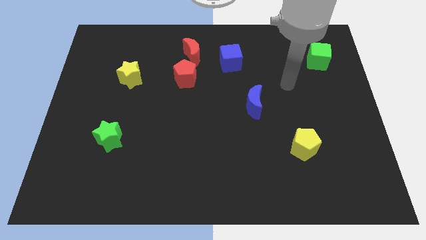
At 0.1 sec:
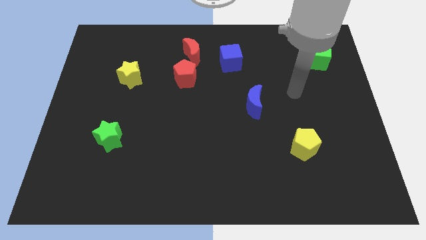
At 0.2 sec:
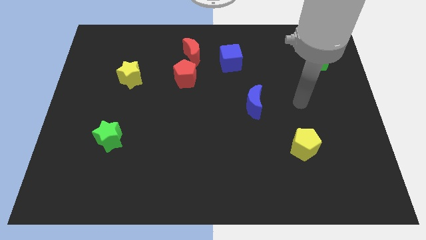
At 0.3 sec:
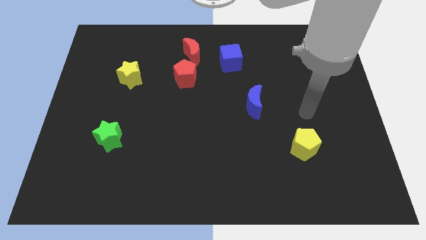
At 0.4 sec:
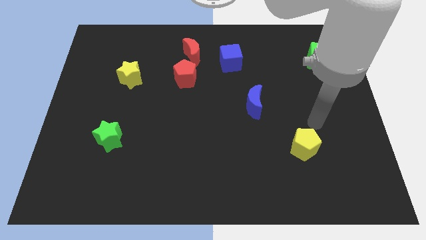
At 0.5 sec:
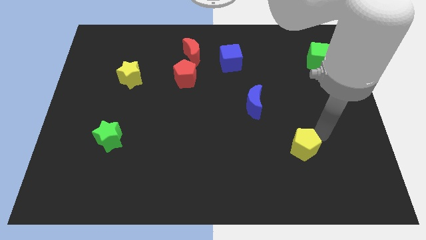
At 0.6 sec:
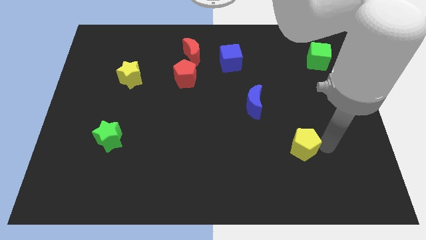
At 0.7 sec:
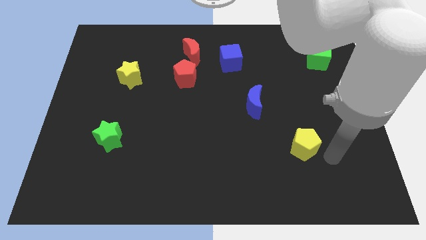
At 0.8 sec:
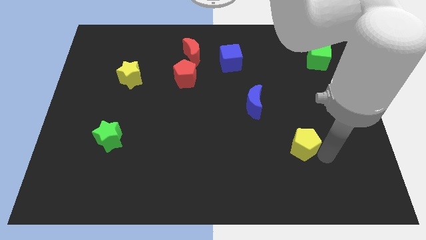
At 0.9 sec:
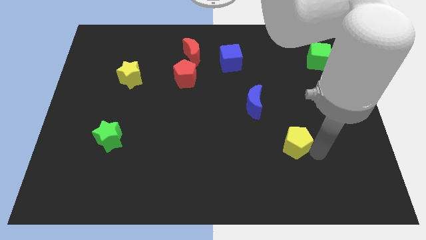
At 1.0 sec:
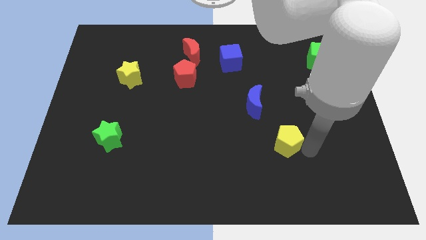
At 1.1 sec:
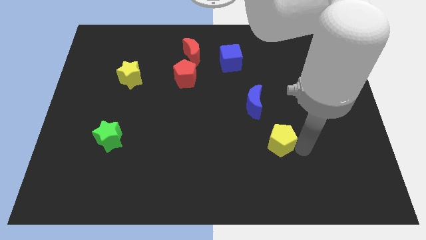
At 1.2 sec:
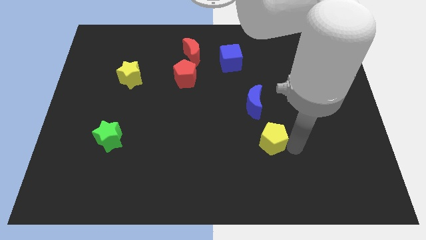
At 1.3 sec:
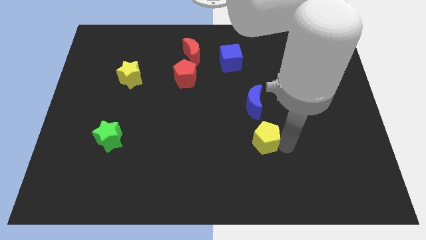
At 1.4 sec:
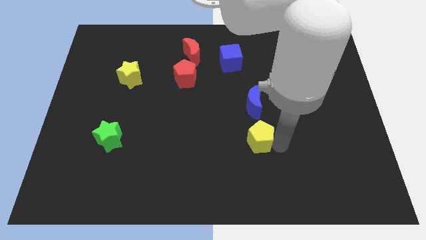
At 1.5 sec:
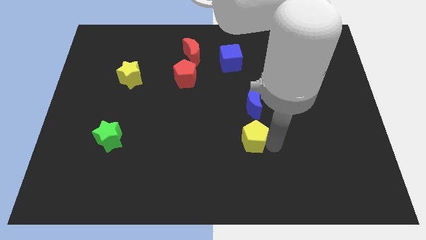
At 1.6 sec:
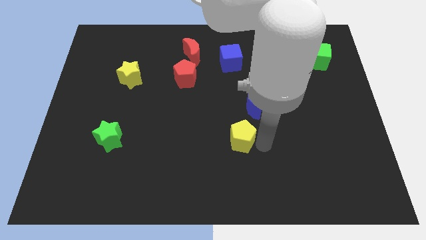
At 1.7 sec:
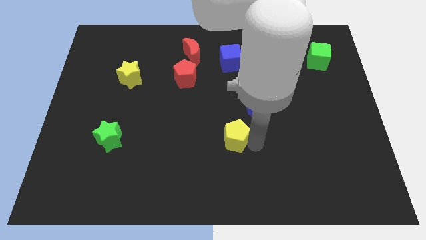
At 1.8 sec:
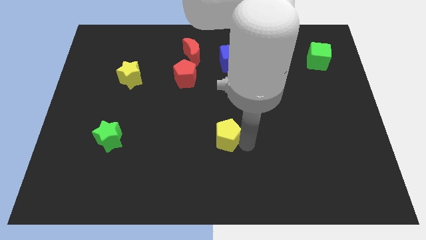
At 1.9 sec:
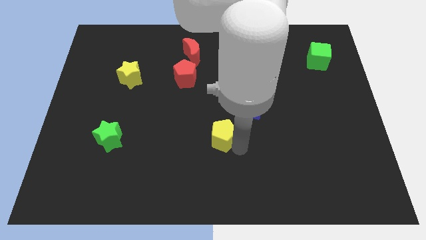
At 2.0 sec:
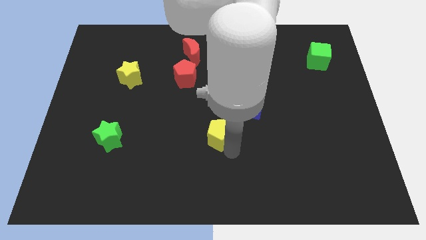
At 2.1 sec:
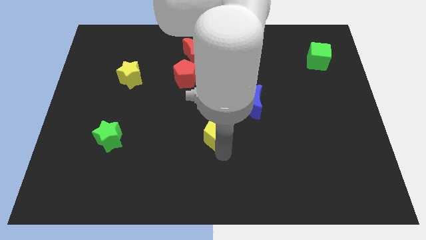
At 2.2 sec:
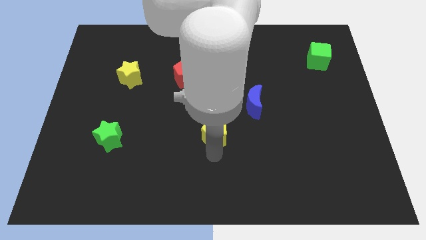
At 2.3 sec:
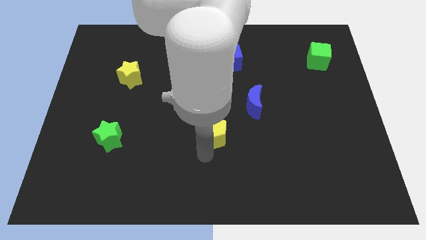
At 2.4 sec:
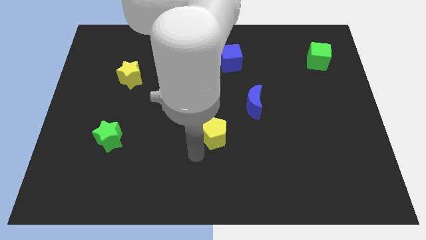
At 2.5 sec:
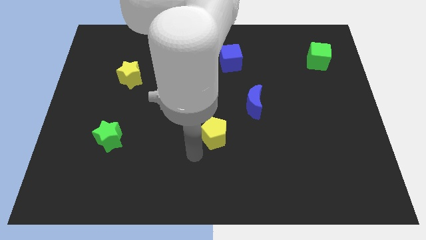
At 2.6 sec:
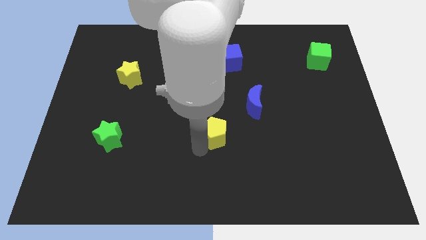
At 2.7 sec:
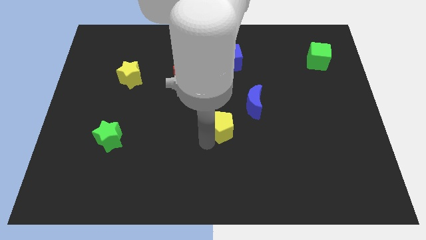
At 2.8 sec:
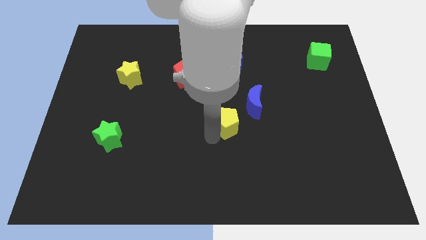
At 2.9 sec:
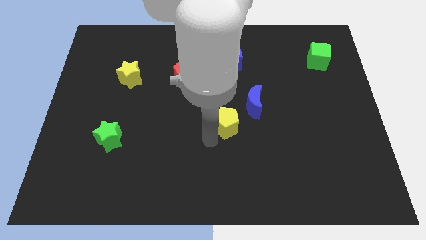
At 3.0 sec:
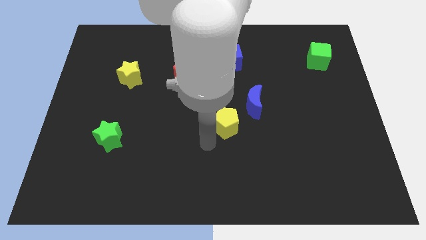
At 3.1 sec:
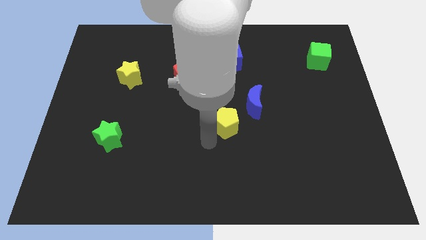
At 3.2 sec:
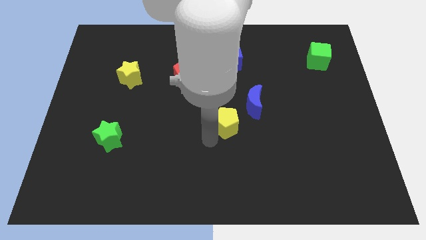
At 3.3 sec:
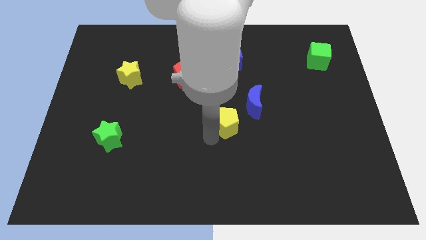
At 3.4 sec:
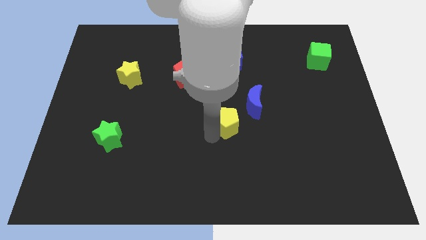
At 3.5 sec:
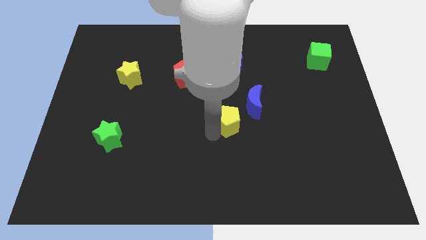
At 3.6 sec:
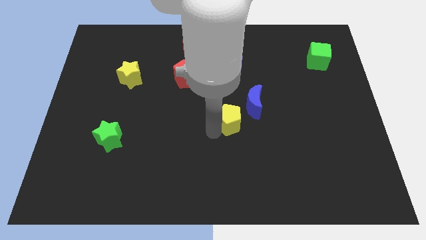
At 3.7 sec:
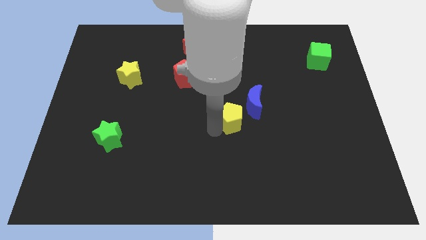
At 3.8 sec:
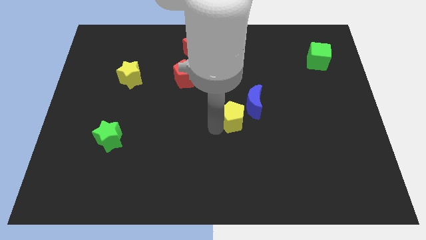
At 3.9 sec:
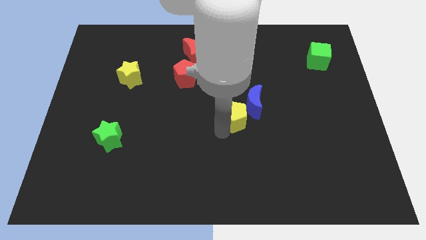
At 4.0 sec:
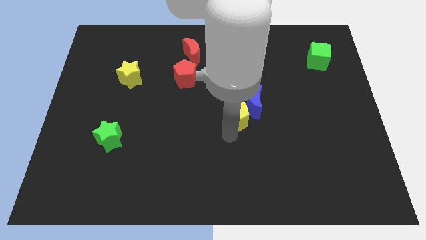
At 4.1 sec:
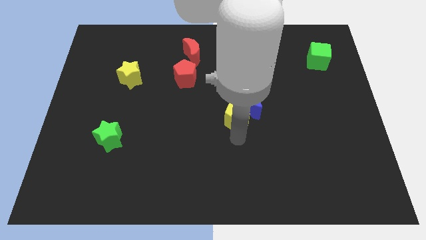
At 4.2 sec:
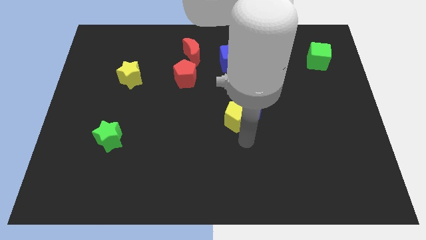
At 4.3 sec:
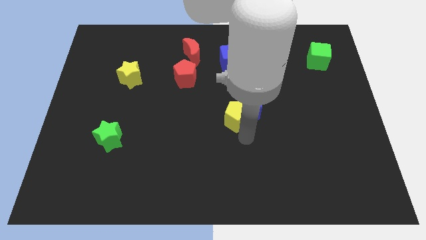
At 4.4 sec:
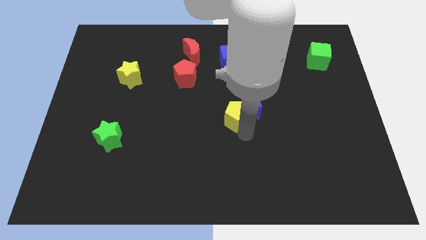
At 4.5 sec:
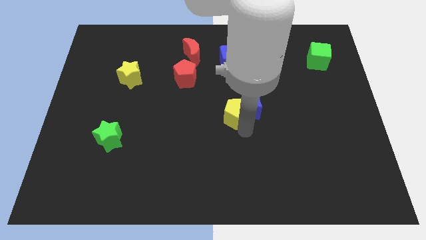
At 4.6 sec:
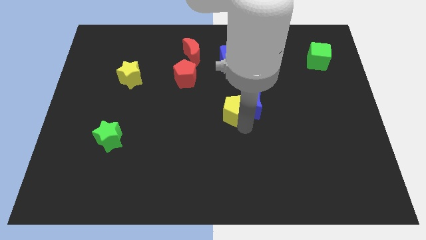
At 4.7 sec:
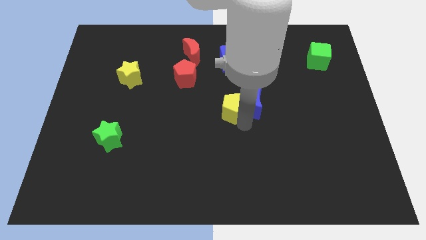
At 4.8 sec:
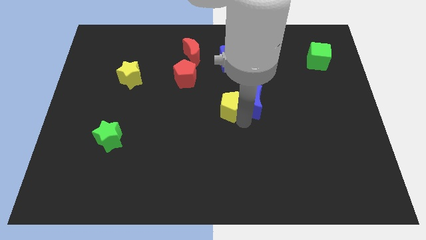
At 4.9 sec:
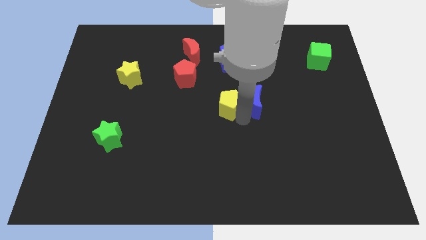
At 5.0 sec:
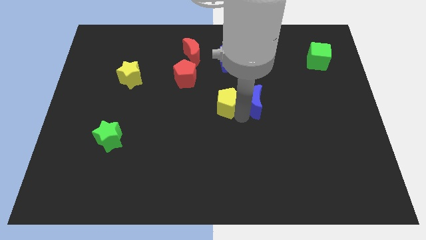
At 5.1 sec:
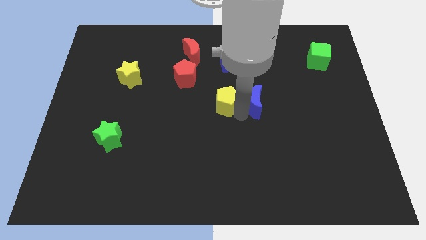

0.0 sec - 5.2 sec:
slide the yellow pentagon up and then to the left

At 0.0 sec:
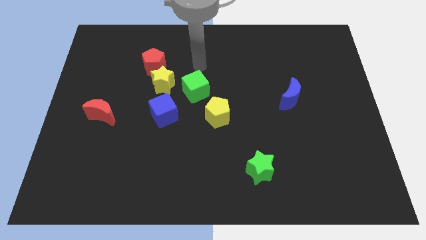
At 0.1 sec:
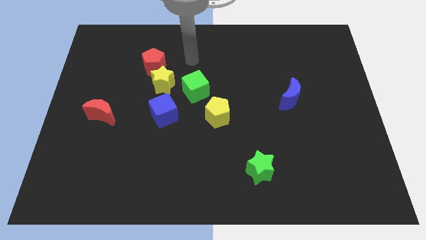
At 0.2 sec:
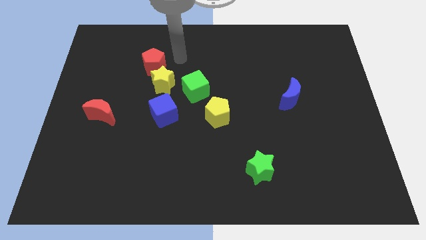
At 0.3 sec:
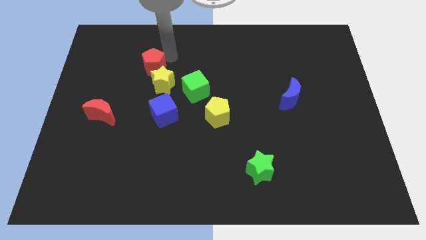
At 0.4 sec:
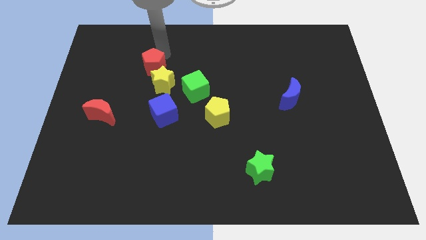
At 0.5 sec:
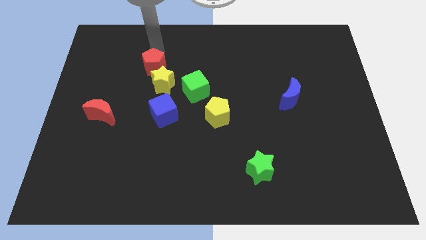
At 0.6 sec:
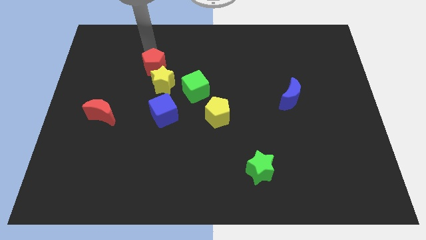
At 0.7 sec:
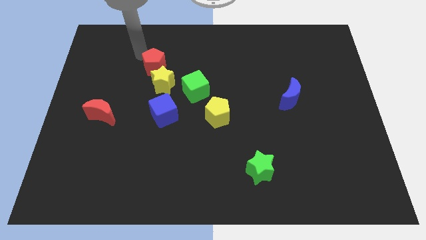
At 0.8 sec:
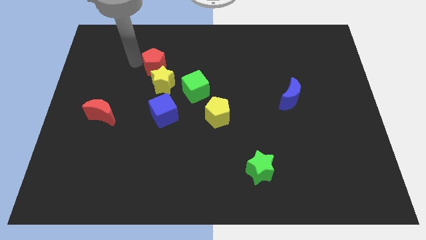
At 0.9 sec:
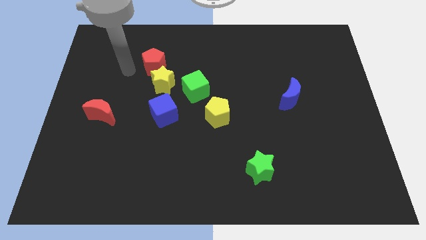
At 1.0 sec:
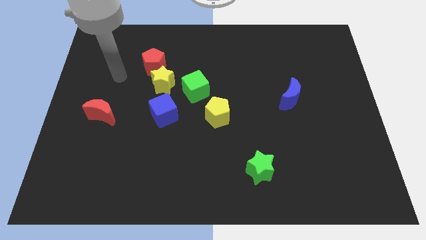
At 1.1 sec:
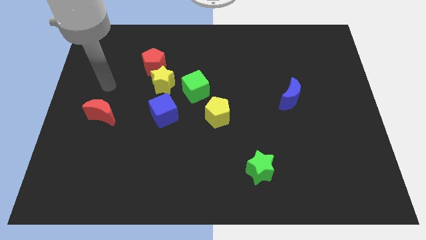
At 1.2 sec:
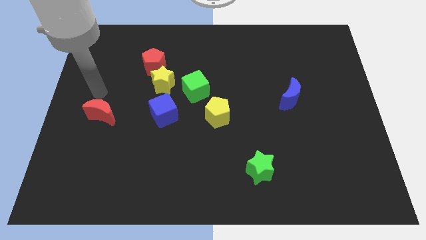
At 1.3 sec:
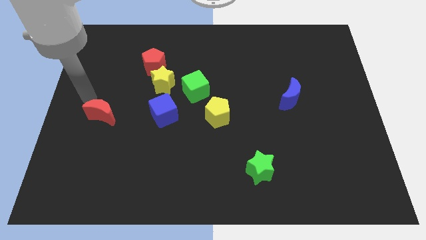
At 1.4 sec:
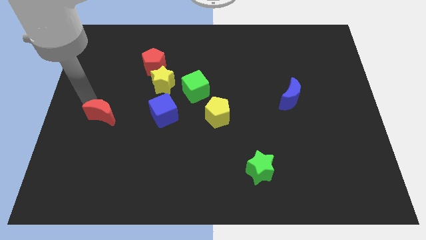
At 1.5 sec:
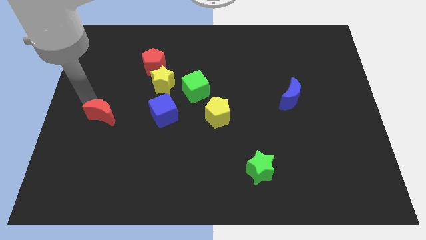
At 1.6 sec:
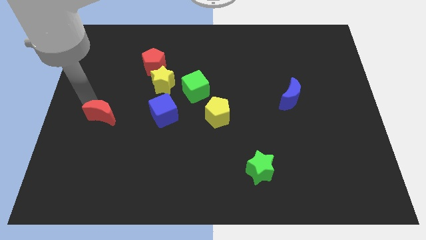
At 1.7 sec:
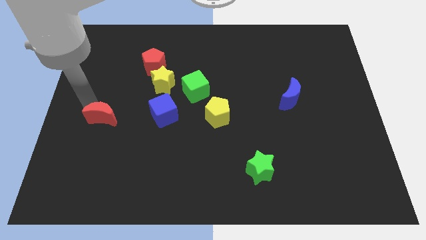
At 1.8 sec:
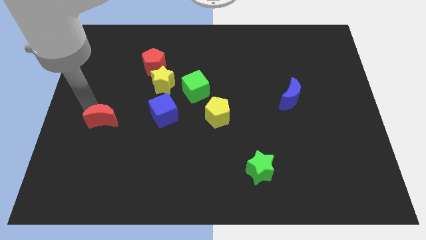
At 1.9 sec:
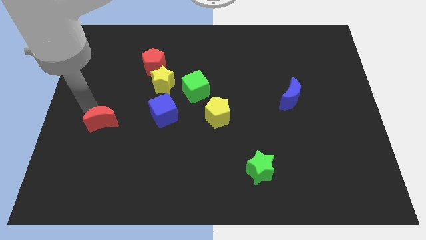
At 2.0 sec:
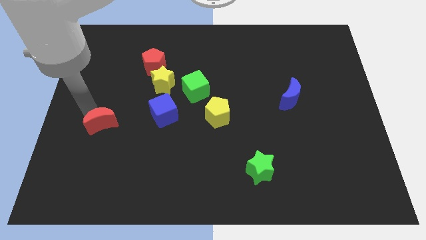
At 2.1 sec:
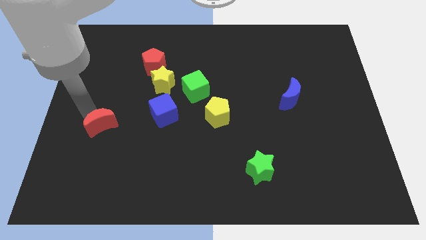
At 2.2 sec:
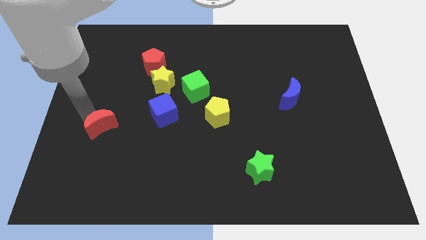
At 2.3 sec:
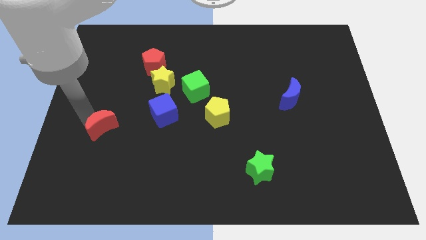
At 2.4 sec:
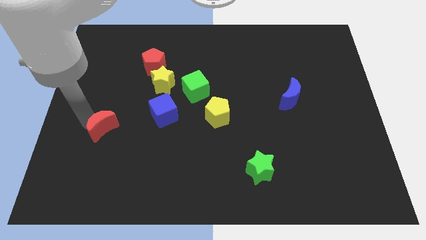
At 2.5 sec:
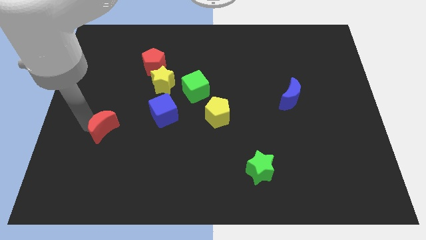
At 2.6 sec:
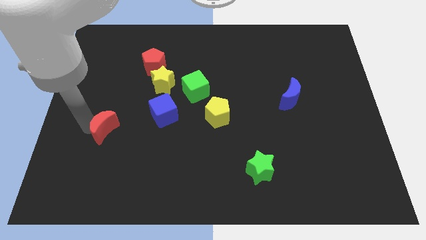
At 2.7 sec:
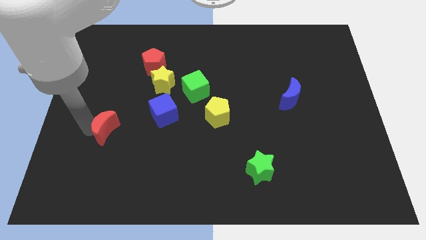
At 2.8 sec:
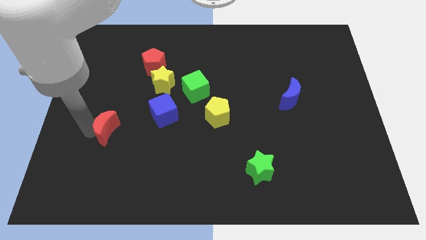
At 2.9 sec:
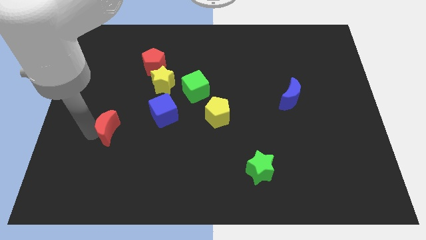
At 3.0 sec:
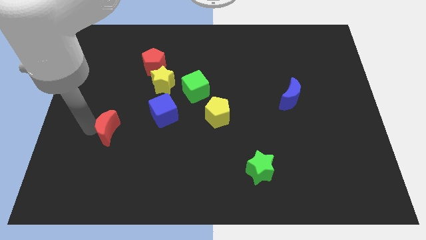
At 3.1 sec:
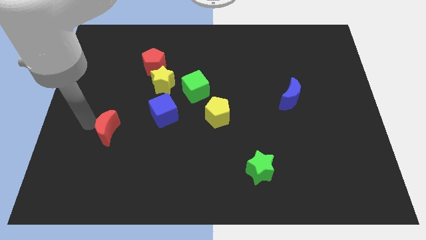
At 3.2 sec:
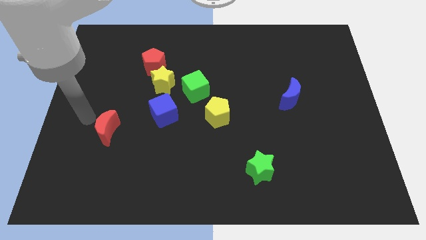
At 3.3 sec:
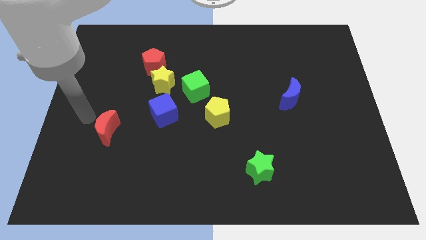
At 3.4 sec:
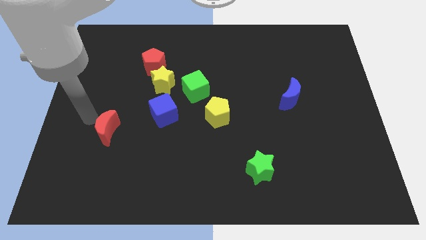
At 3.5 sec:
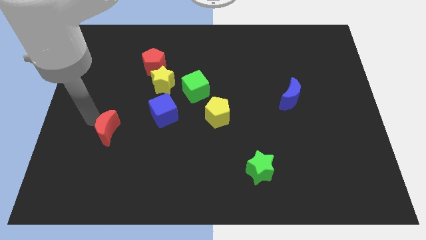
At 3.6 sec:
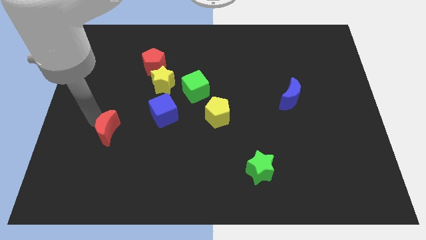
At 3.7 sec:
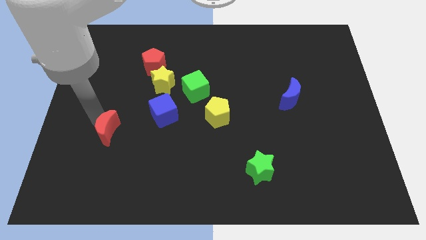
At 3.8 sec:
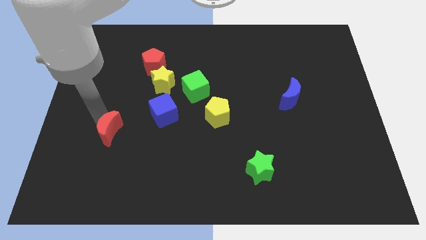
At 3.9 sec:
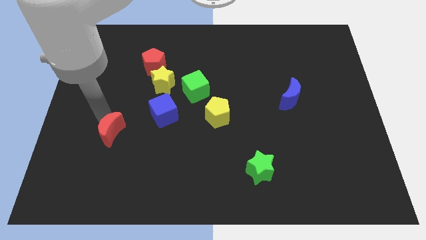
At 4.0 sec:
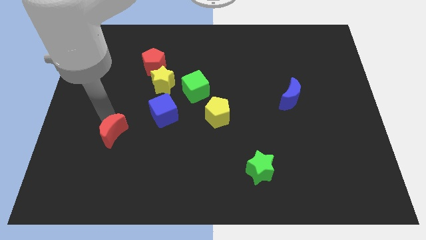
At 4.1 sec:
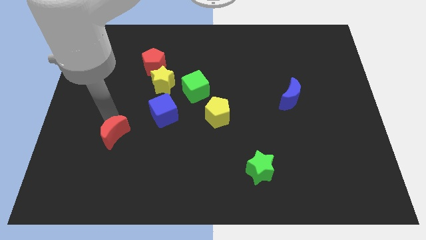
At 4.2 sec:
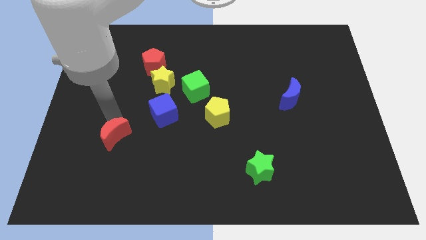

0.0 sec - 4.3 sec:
push the red moon a bit downwards and to the right
